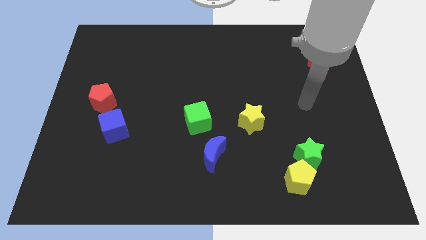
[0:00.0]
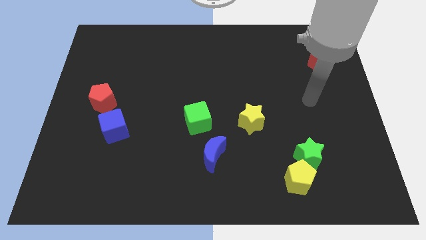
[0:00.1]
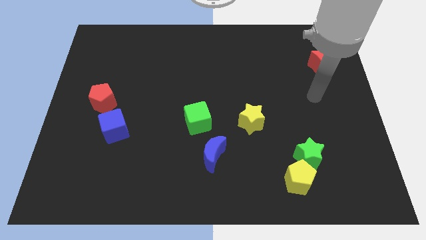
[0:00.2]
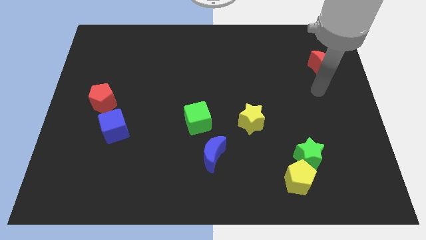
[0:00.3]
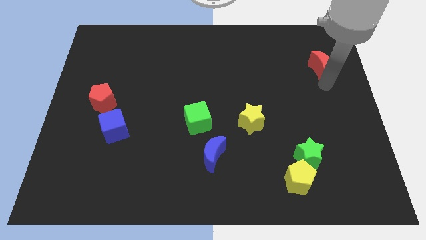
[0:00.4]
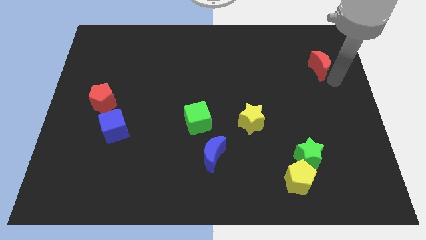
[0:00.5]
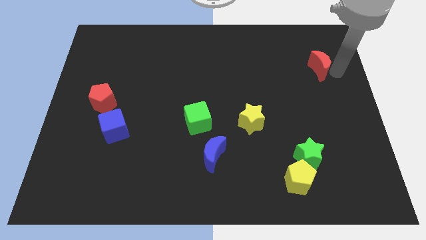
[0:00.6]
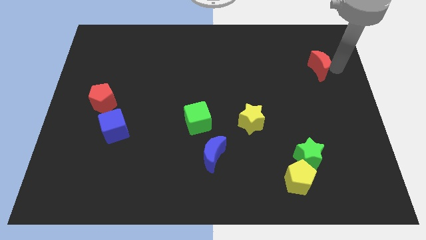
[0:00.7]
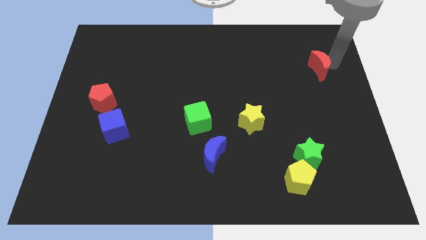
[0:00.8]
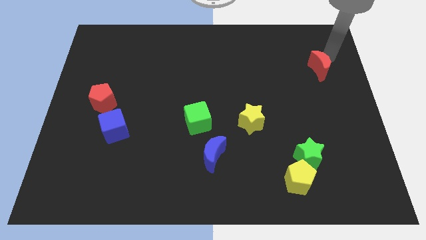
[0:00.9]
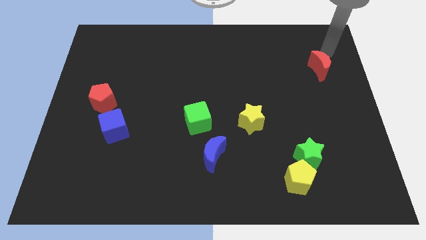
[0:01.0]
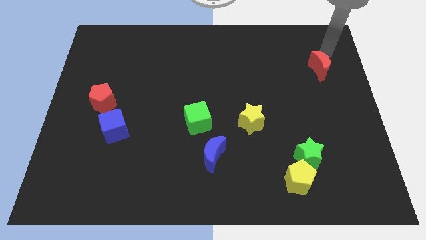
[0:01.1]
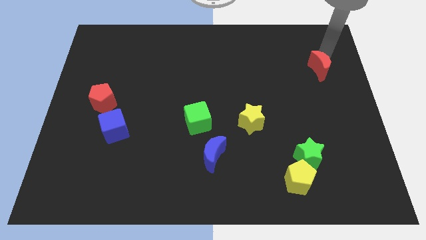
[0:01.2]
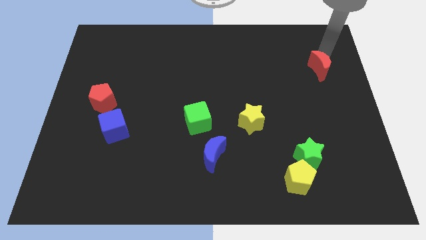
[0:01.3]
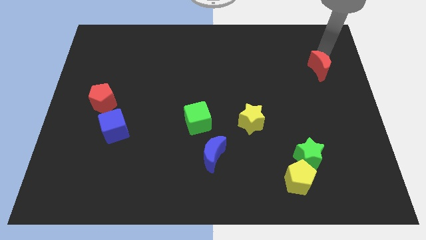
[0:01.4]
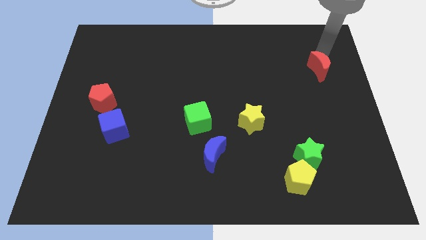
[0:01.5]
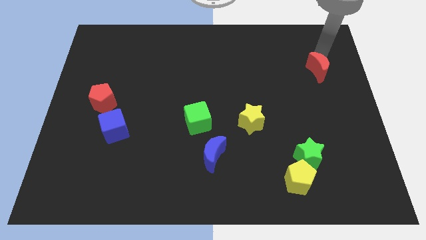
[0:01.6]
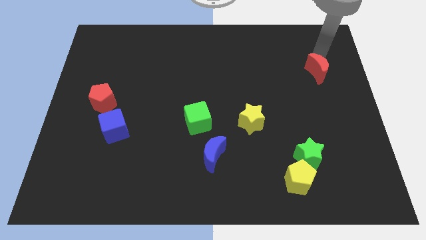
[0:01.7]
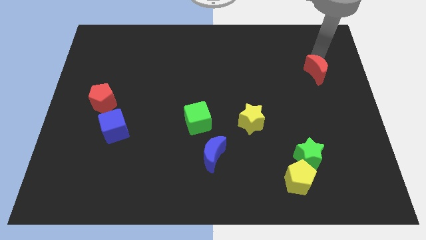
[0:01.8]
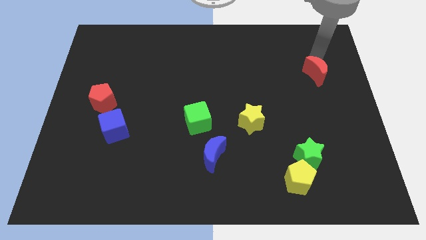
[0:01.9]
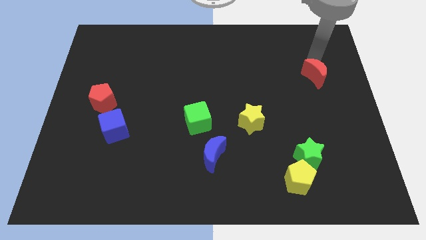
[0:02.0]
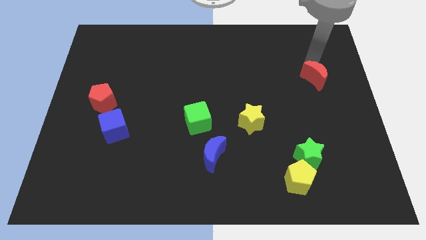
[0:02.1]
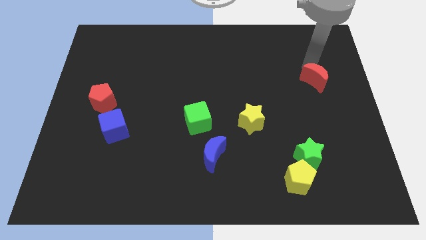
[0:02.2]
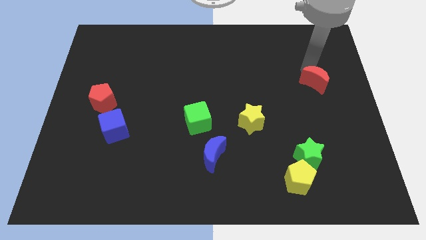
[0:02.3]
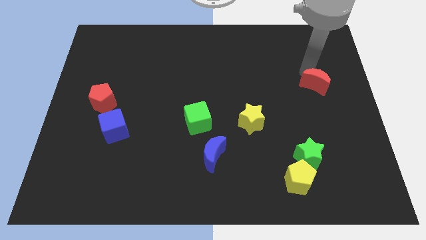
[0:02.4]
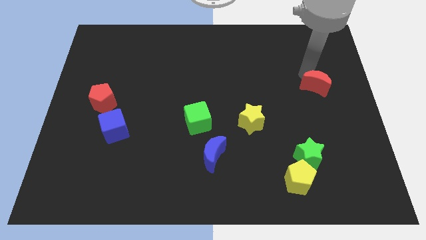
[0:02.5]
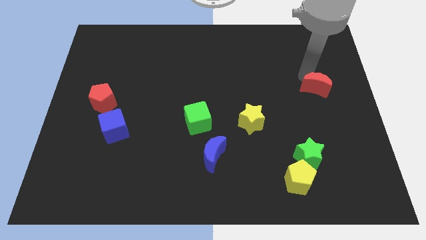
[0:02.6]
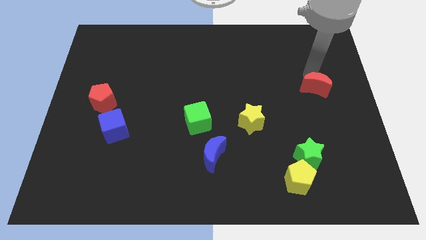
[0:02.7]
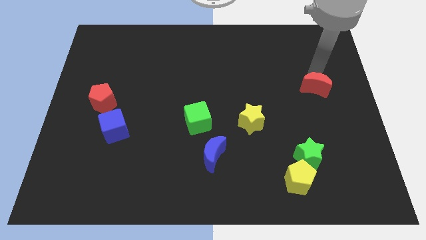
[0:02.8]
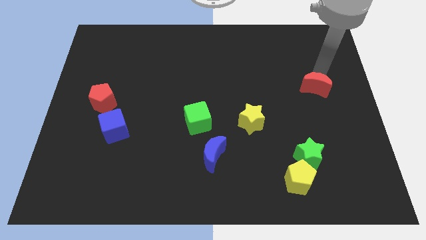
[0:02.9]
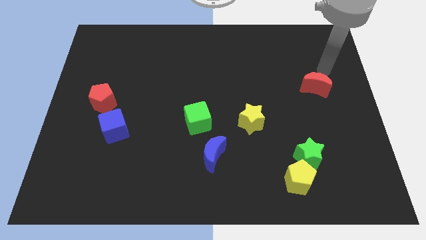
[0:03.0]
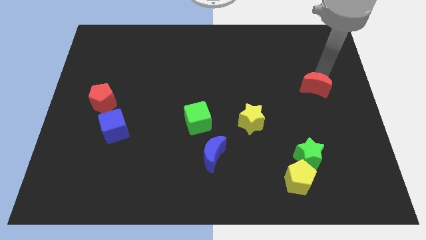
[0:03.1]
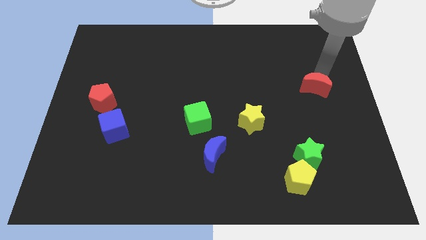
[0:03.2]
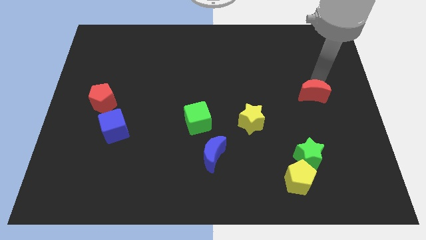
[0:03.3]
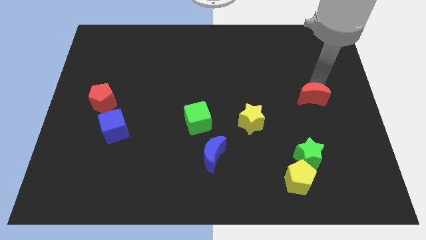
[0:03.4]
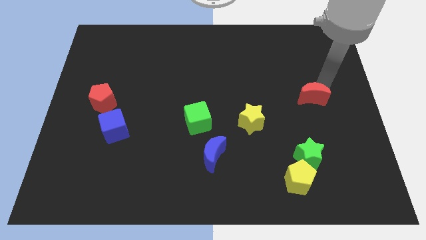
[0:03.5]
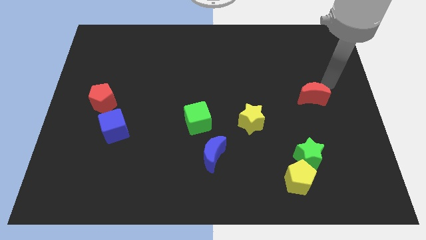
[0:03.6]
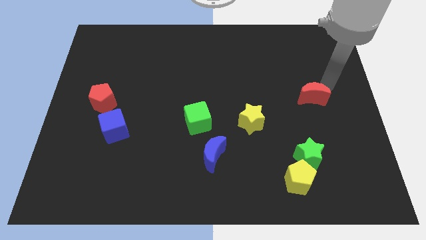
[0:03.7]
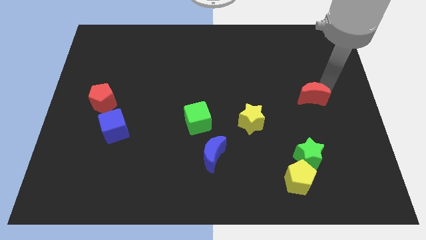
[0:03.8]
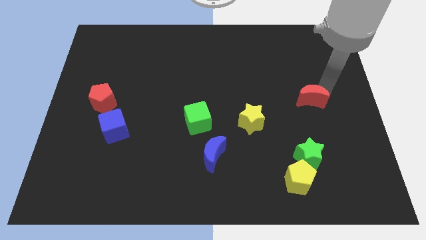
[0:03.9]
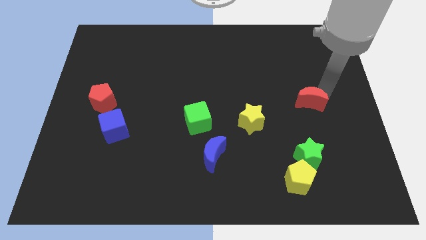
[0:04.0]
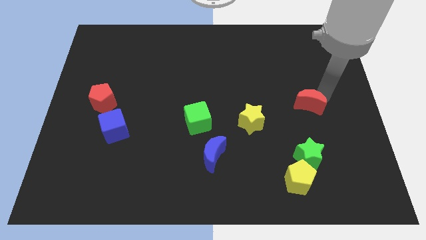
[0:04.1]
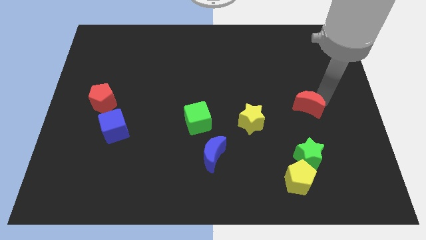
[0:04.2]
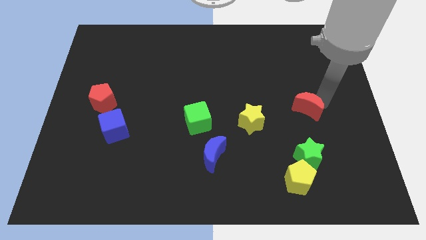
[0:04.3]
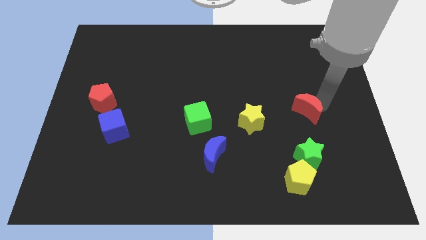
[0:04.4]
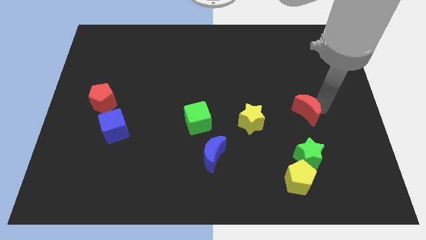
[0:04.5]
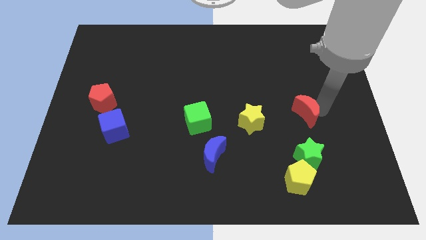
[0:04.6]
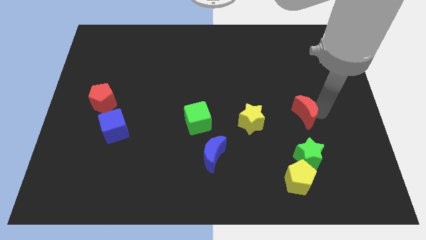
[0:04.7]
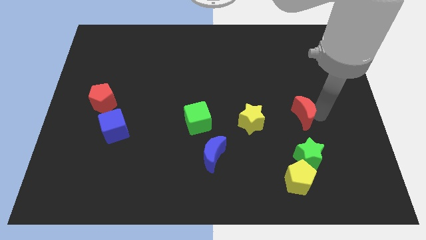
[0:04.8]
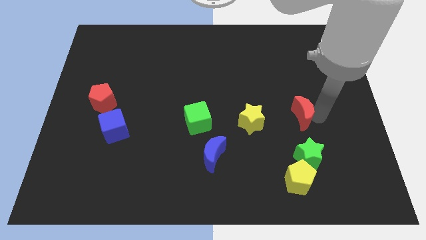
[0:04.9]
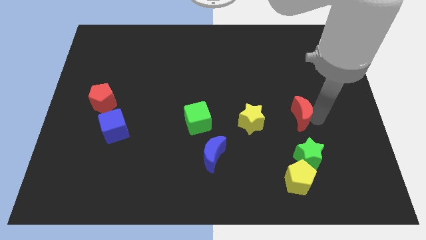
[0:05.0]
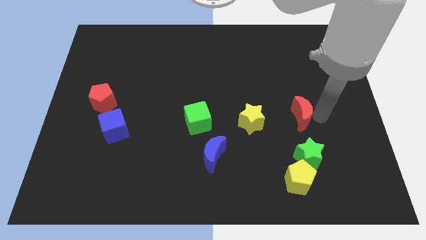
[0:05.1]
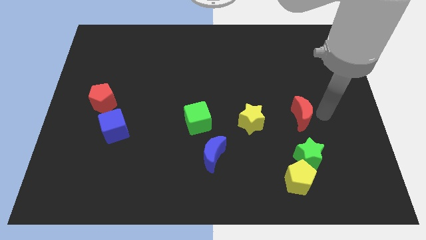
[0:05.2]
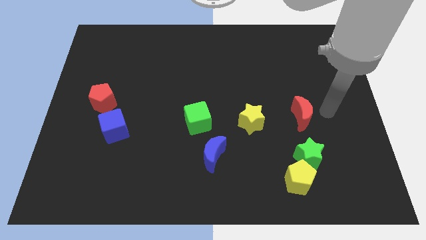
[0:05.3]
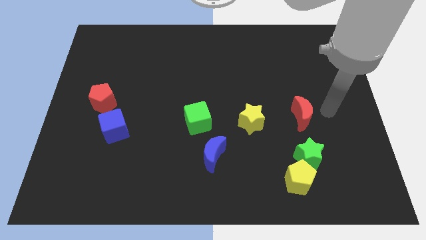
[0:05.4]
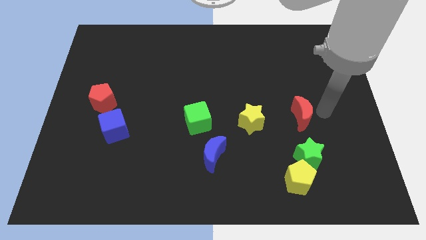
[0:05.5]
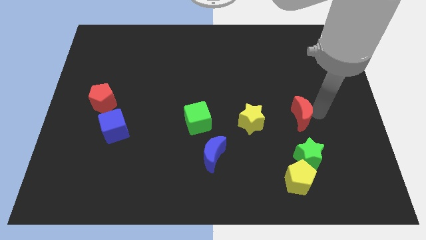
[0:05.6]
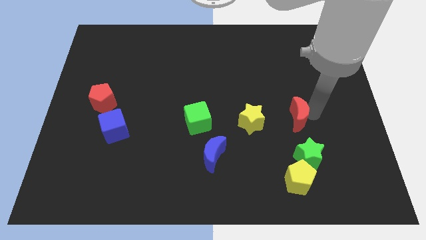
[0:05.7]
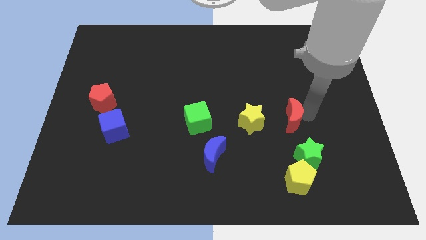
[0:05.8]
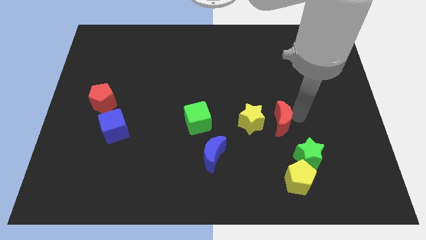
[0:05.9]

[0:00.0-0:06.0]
slide the red moon downwards and left

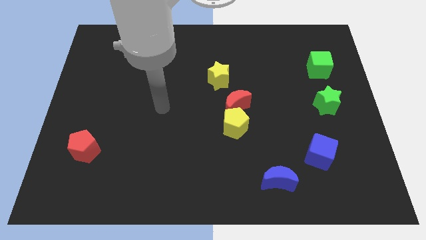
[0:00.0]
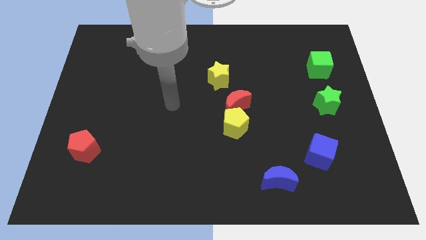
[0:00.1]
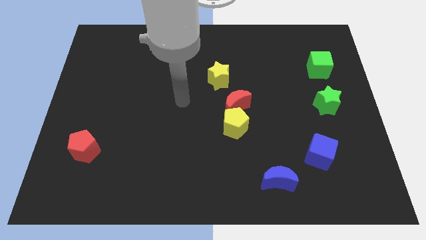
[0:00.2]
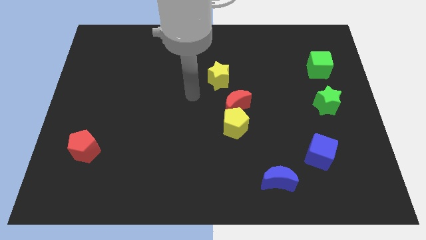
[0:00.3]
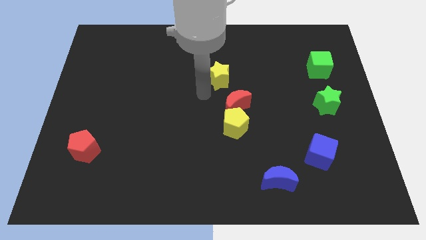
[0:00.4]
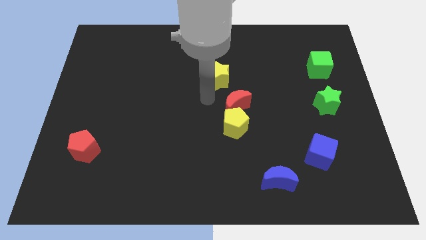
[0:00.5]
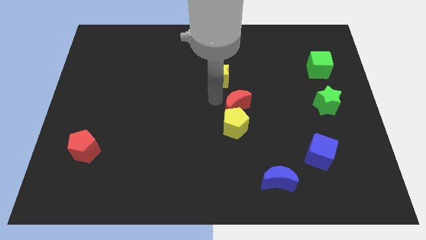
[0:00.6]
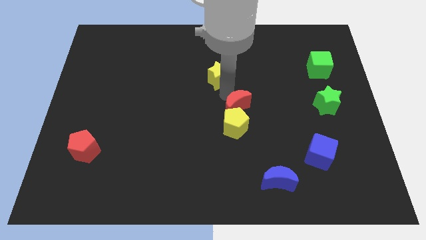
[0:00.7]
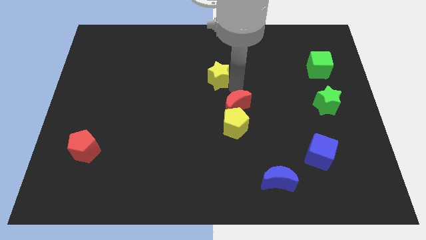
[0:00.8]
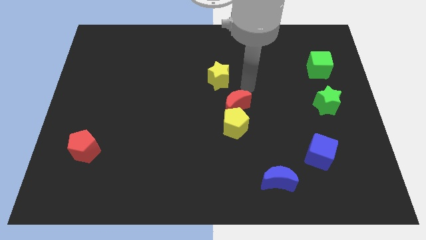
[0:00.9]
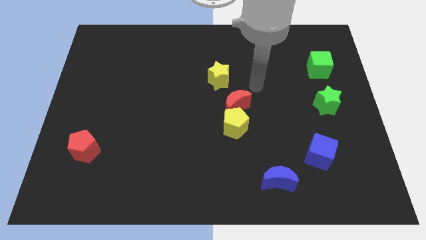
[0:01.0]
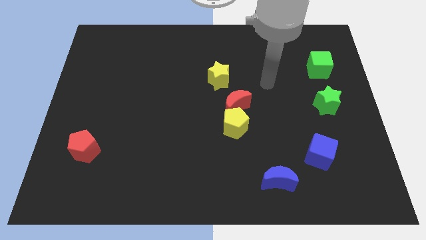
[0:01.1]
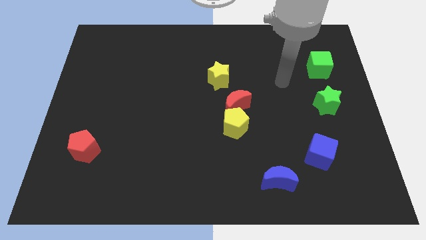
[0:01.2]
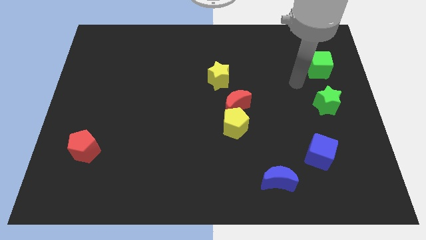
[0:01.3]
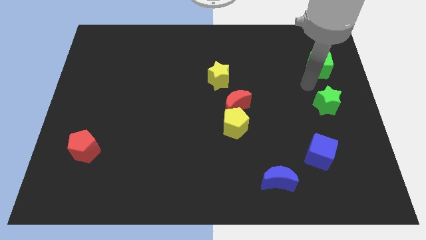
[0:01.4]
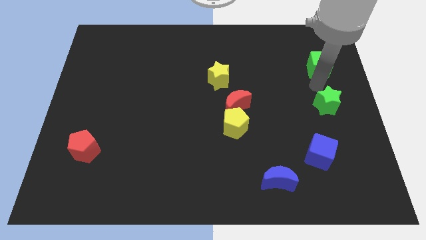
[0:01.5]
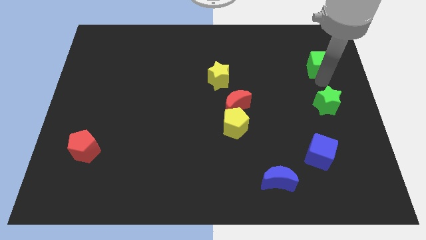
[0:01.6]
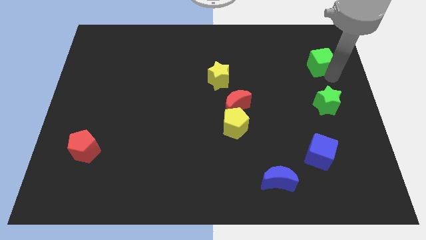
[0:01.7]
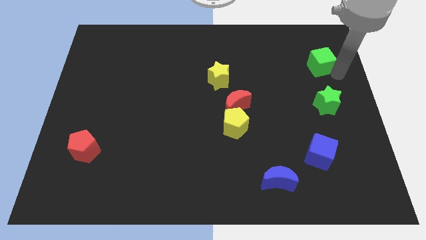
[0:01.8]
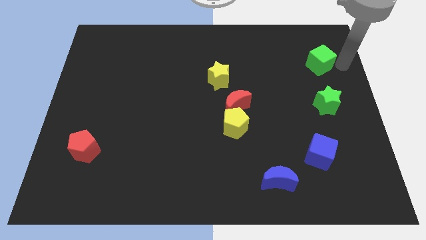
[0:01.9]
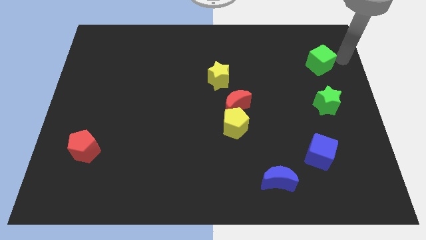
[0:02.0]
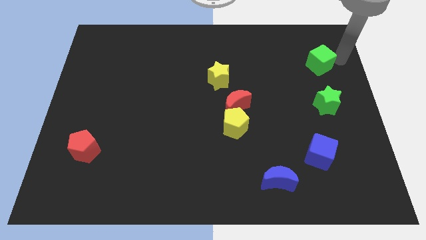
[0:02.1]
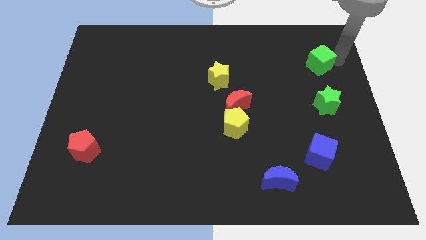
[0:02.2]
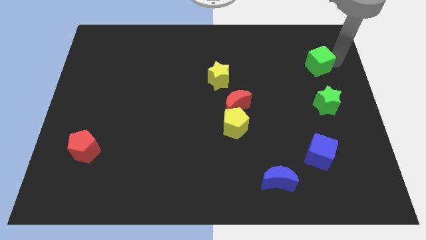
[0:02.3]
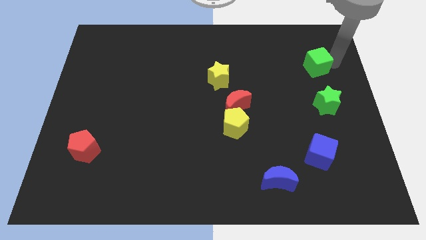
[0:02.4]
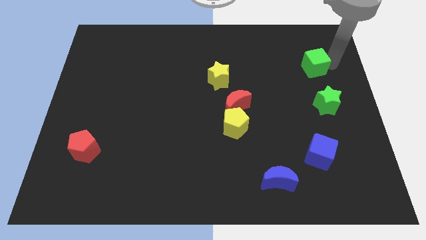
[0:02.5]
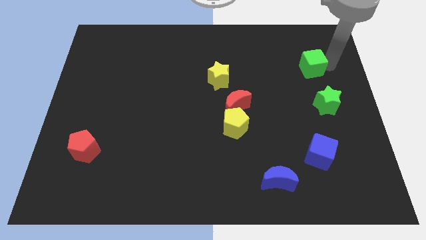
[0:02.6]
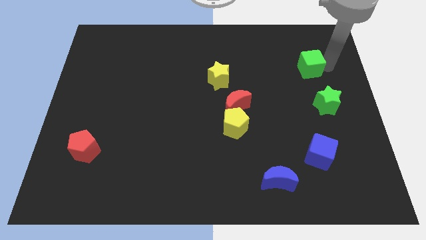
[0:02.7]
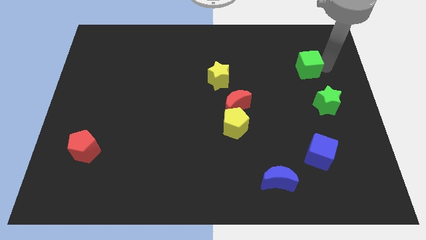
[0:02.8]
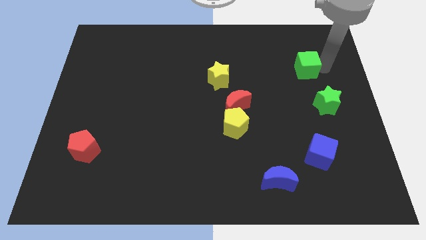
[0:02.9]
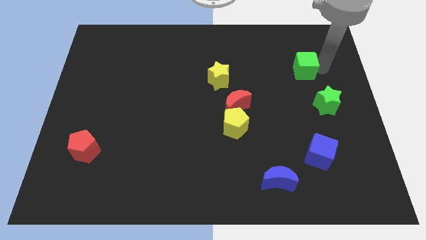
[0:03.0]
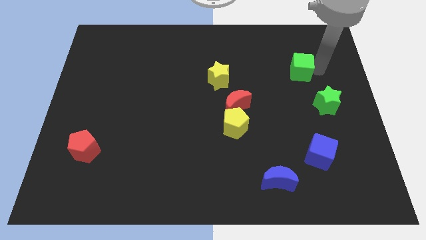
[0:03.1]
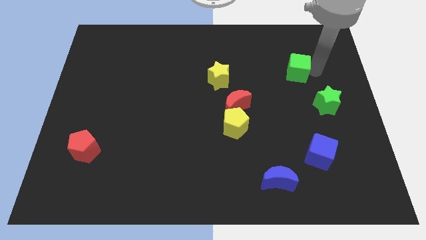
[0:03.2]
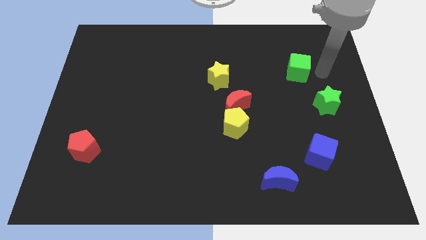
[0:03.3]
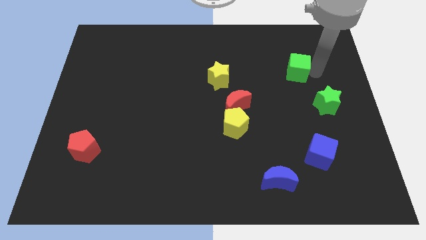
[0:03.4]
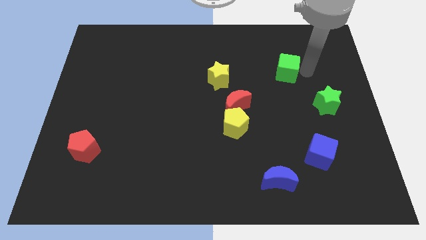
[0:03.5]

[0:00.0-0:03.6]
slightly move the green cube to the left
